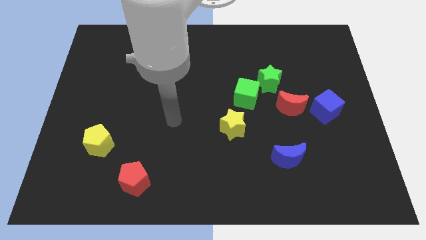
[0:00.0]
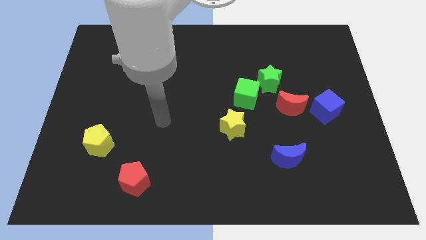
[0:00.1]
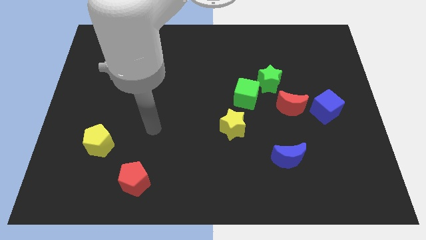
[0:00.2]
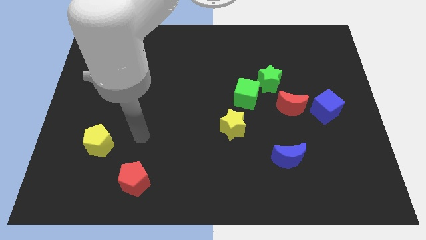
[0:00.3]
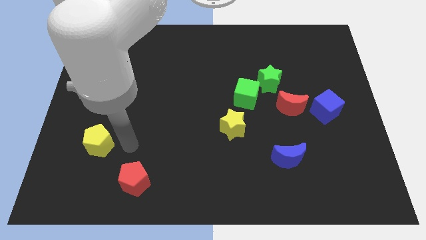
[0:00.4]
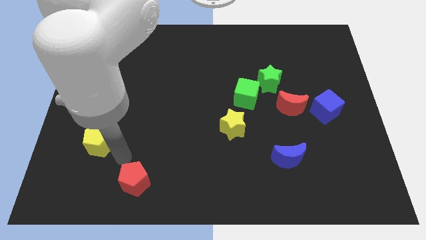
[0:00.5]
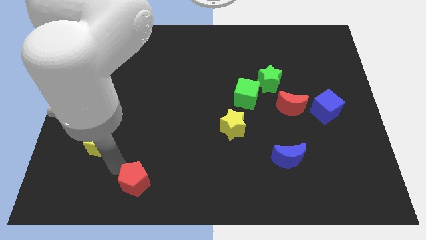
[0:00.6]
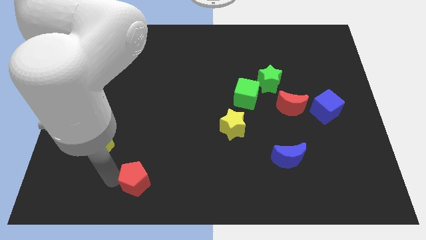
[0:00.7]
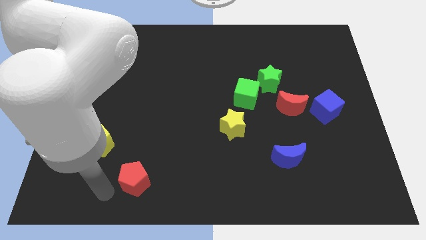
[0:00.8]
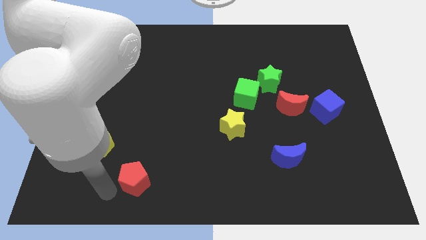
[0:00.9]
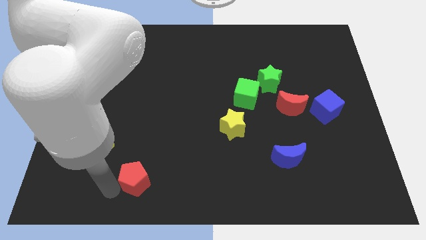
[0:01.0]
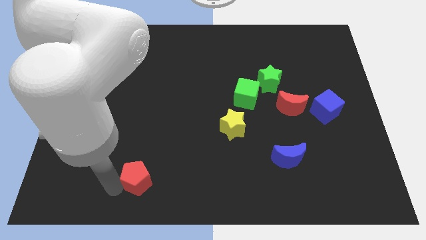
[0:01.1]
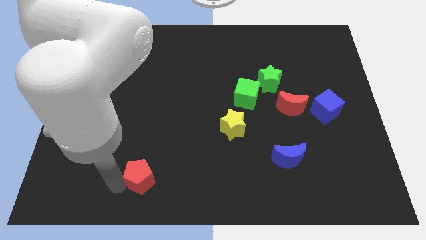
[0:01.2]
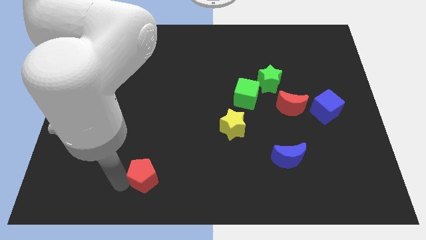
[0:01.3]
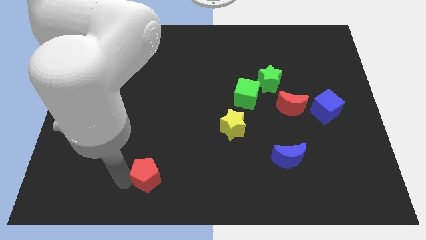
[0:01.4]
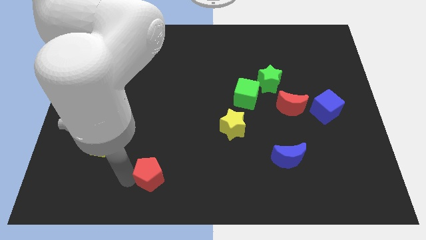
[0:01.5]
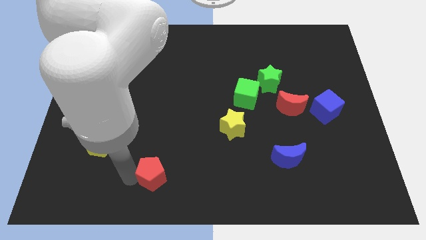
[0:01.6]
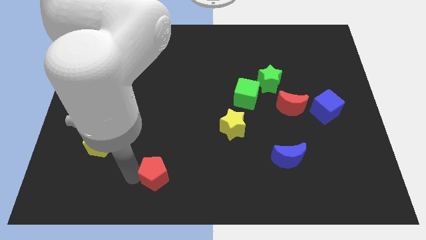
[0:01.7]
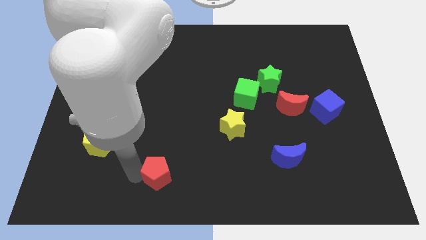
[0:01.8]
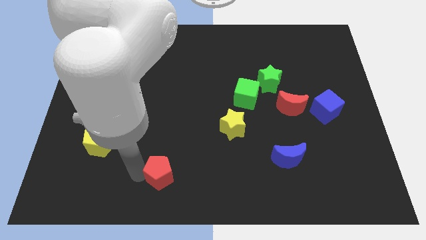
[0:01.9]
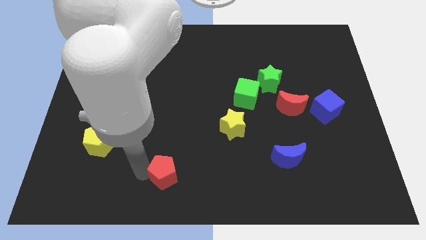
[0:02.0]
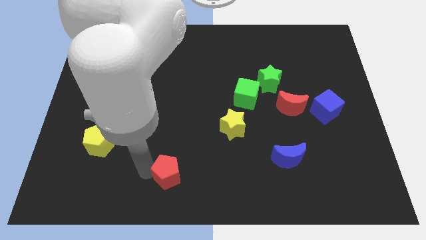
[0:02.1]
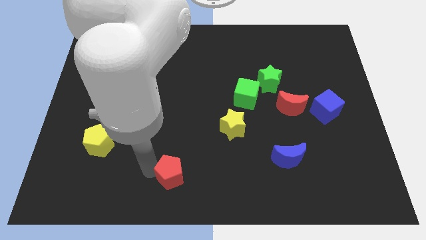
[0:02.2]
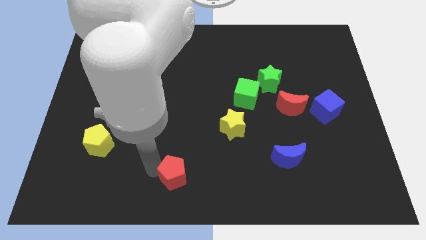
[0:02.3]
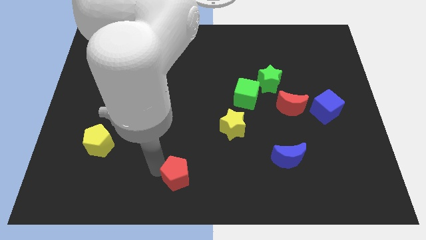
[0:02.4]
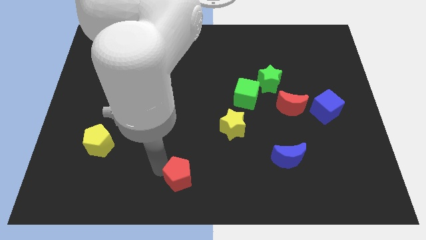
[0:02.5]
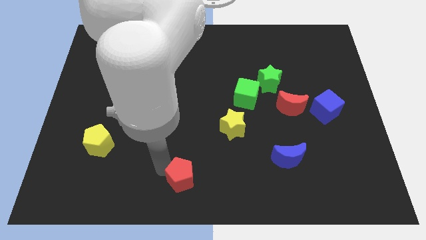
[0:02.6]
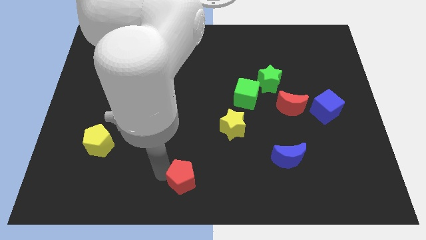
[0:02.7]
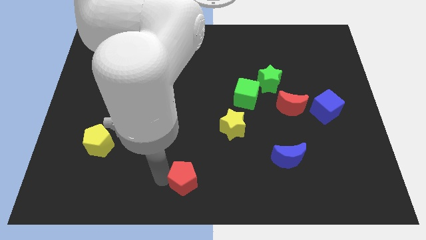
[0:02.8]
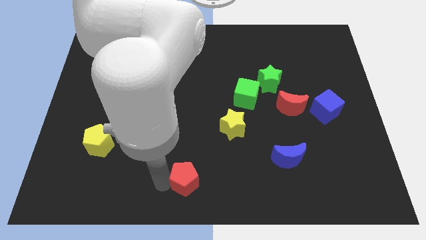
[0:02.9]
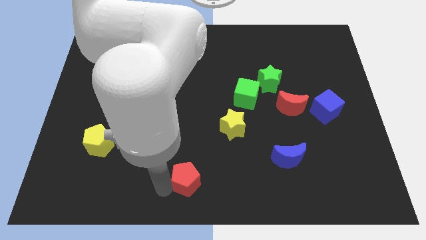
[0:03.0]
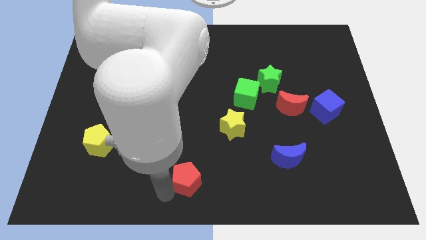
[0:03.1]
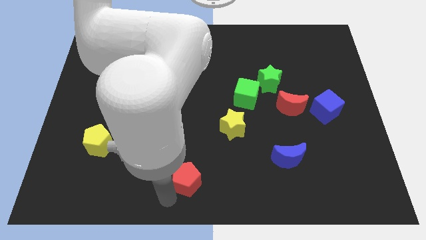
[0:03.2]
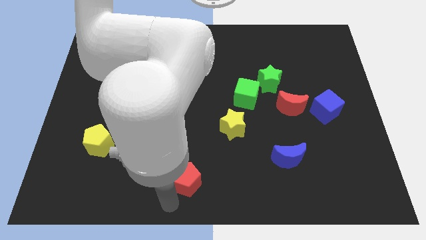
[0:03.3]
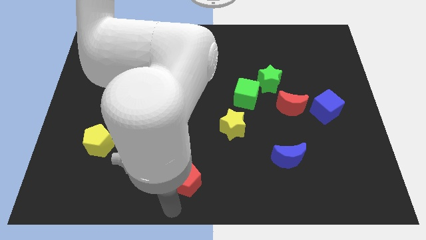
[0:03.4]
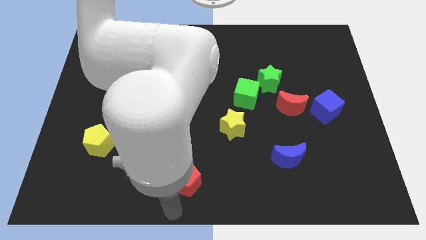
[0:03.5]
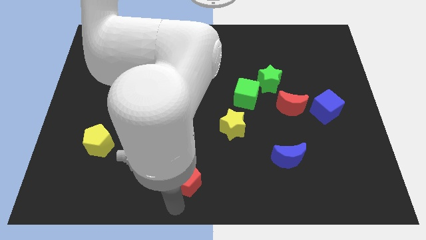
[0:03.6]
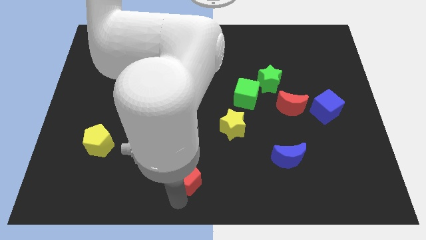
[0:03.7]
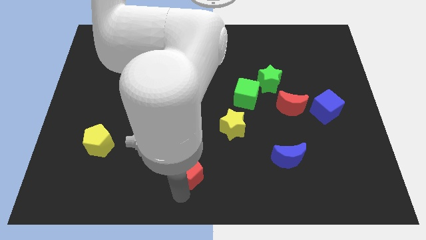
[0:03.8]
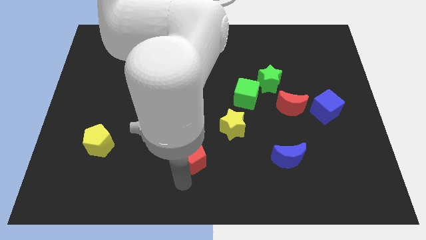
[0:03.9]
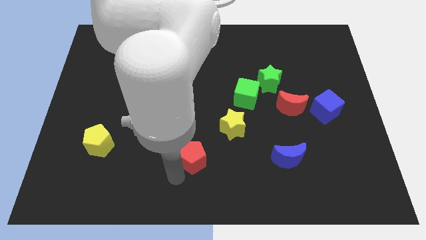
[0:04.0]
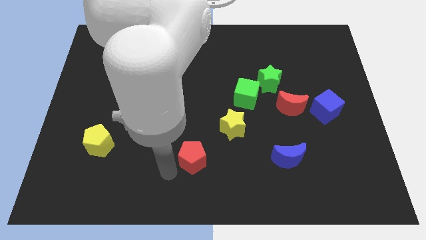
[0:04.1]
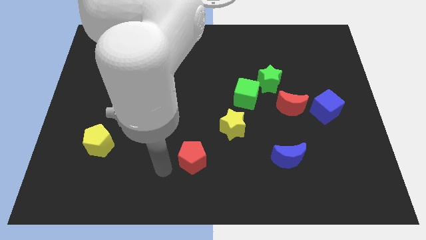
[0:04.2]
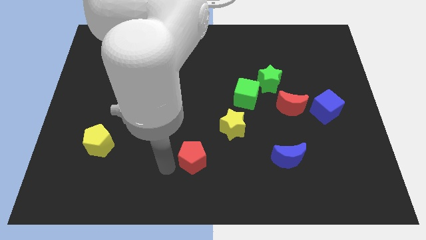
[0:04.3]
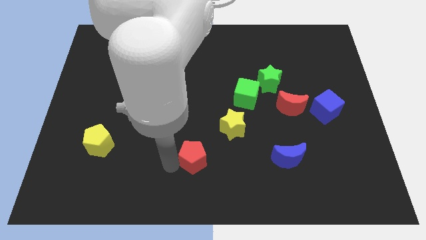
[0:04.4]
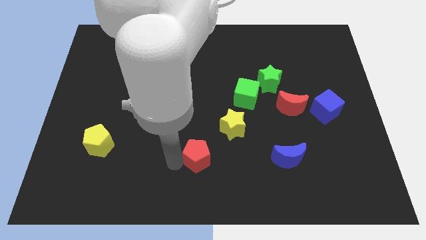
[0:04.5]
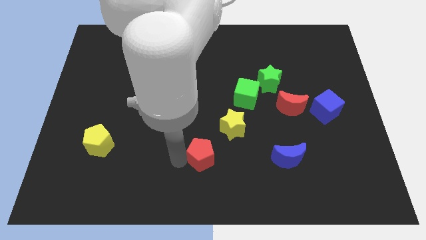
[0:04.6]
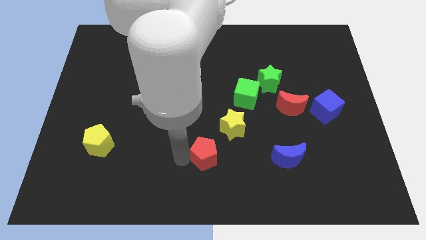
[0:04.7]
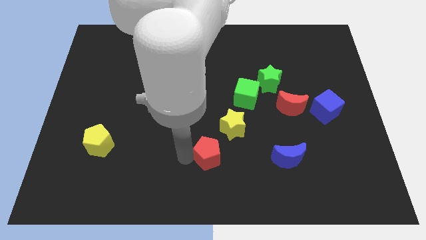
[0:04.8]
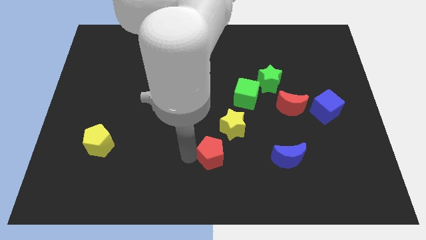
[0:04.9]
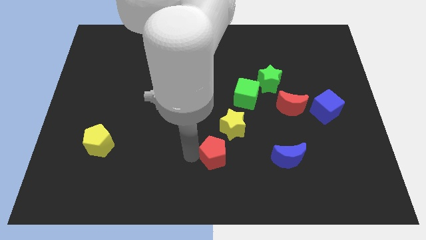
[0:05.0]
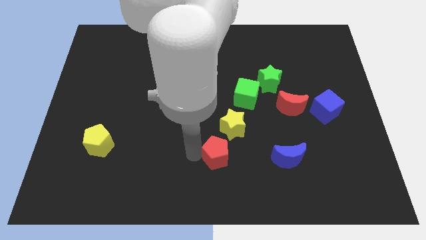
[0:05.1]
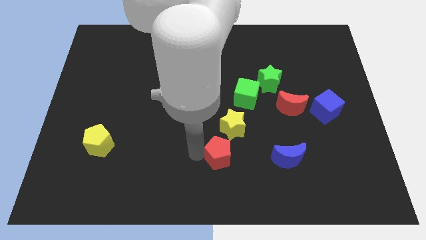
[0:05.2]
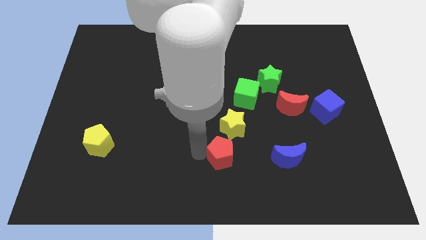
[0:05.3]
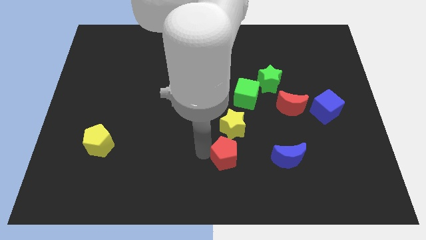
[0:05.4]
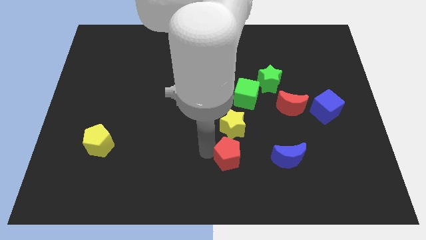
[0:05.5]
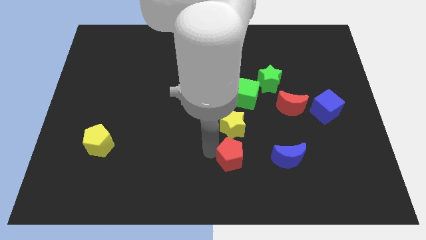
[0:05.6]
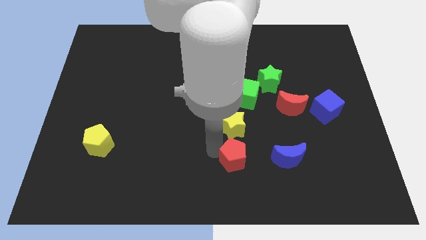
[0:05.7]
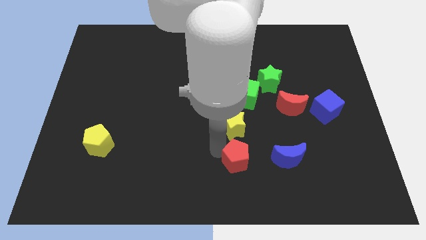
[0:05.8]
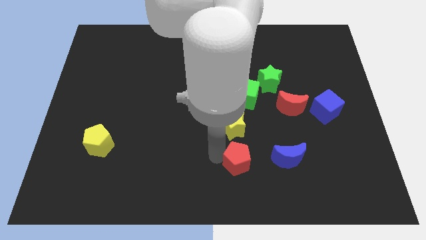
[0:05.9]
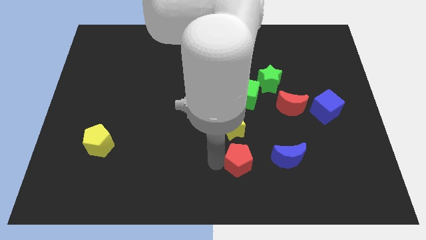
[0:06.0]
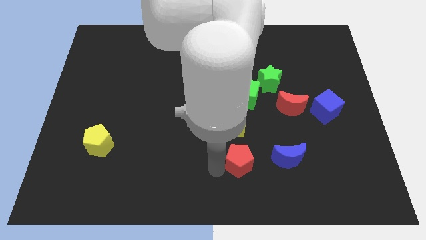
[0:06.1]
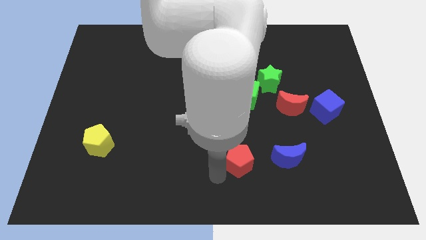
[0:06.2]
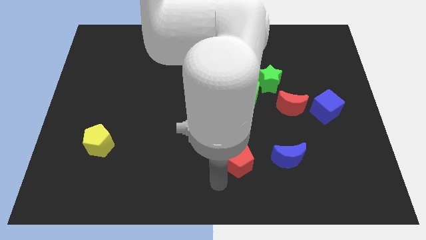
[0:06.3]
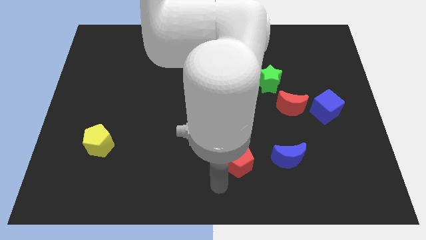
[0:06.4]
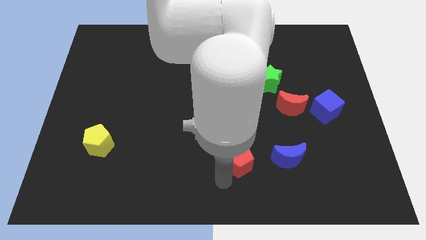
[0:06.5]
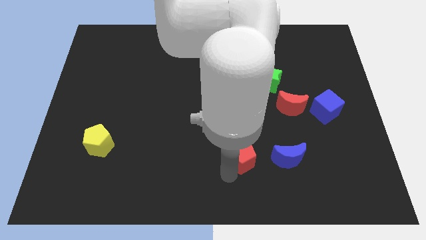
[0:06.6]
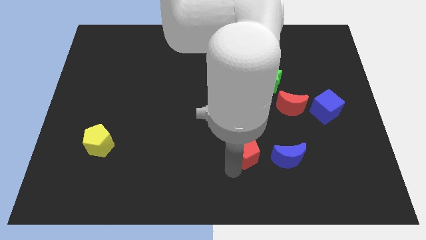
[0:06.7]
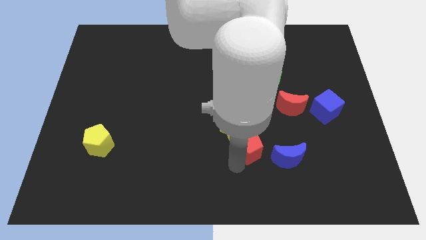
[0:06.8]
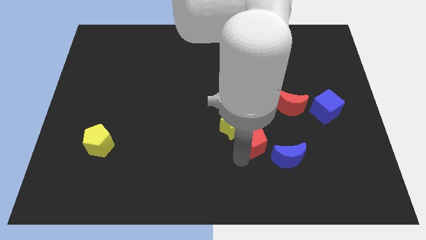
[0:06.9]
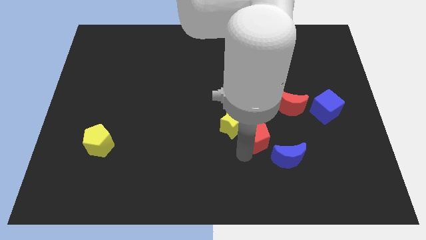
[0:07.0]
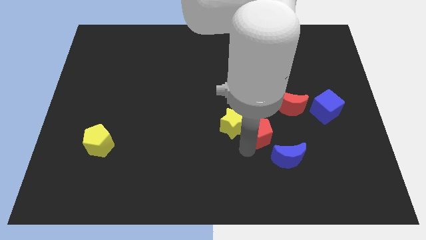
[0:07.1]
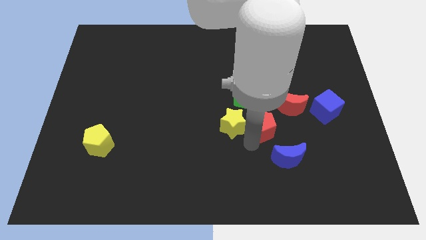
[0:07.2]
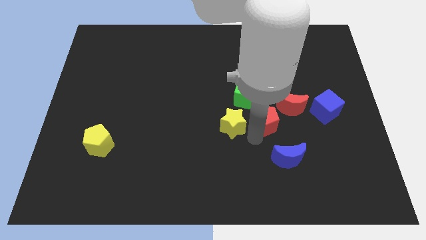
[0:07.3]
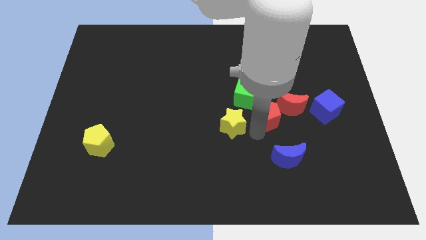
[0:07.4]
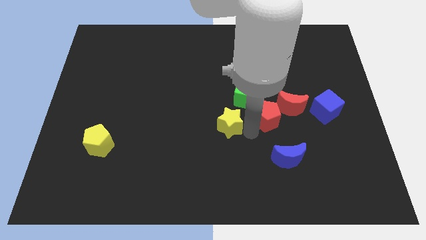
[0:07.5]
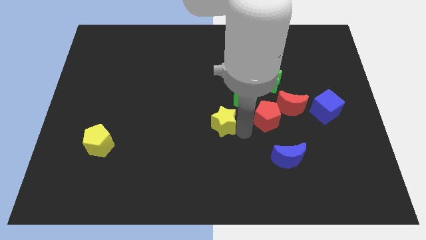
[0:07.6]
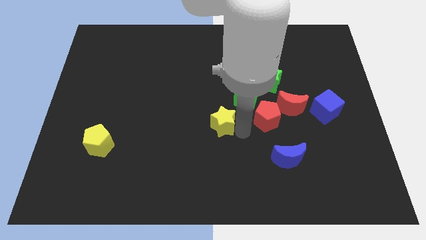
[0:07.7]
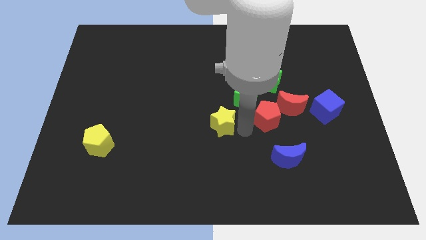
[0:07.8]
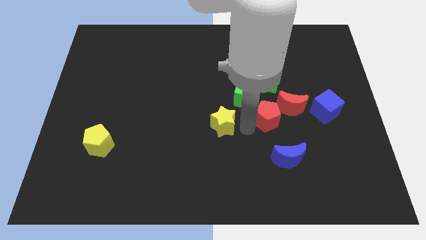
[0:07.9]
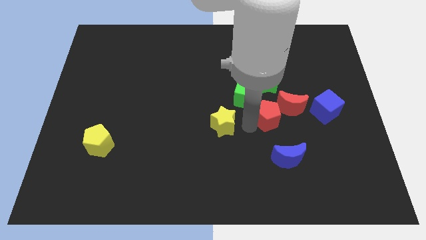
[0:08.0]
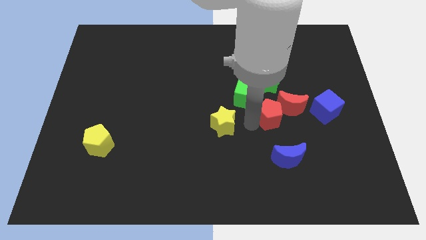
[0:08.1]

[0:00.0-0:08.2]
move the red pentagon next to the red moon
